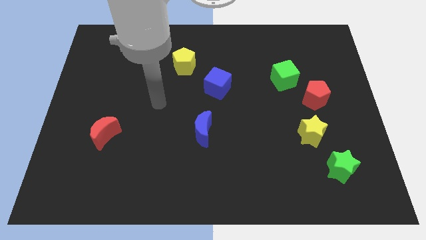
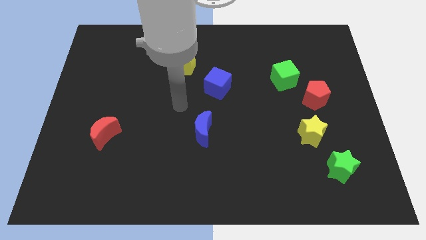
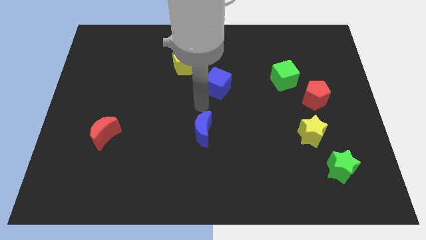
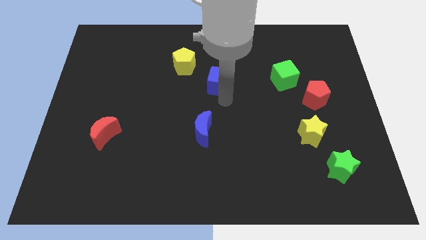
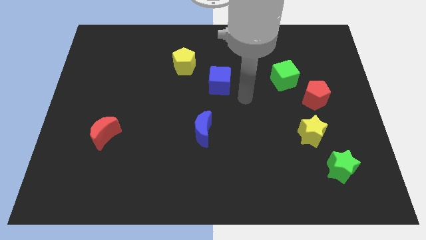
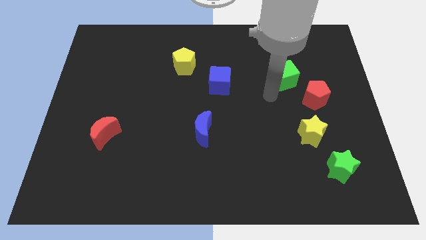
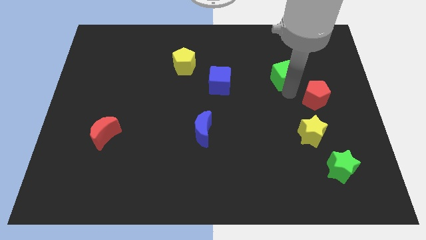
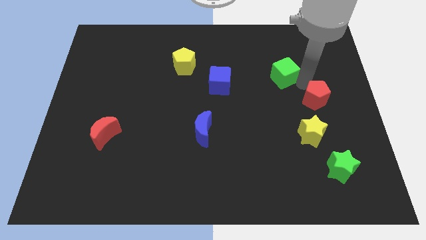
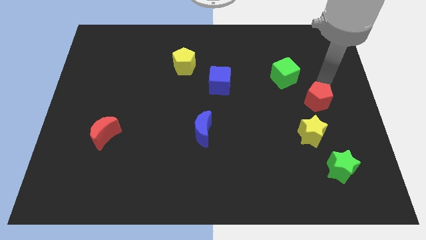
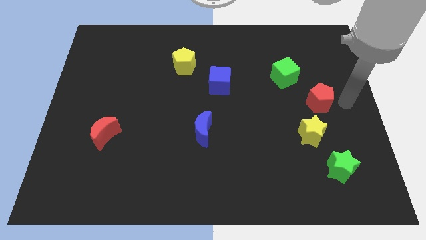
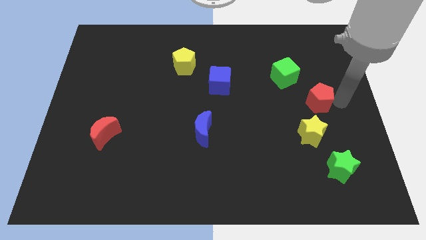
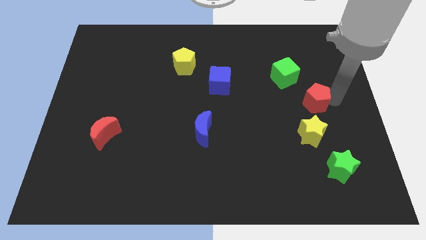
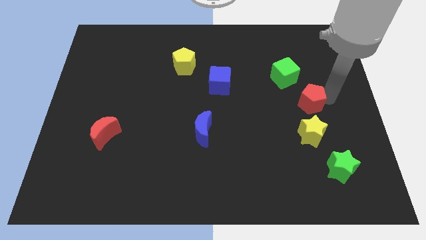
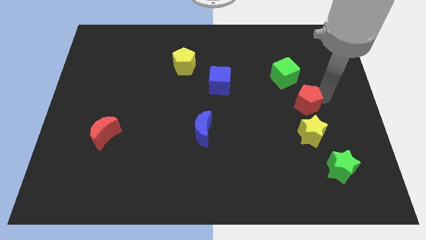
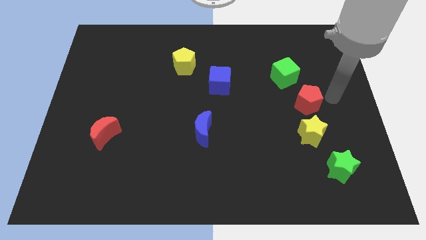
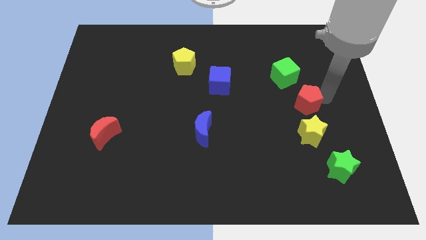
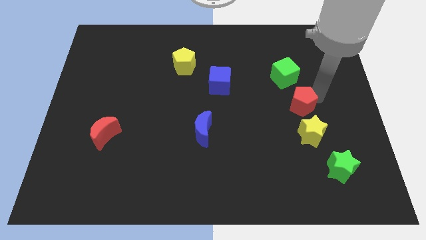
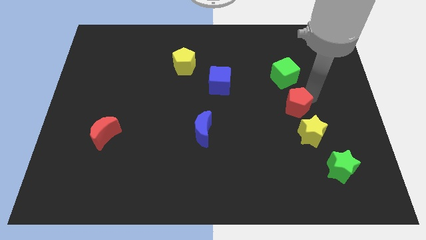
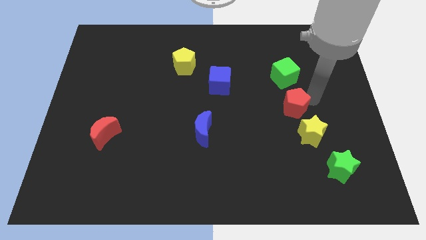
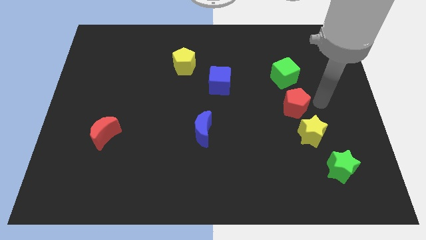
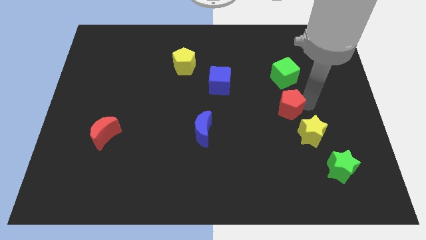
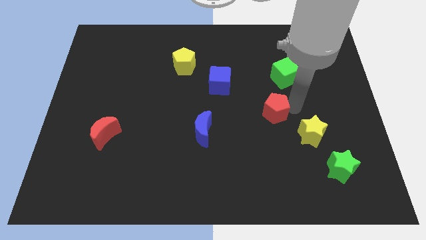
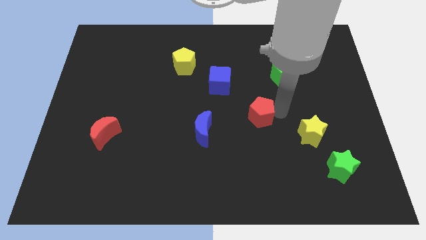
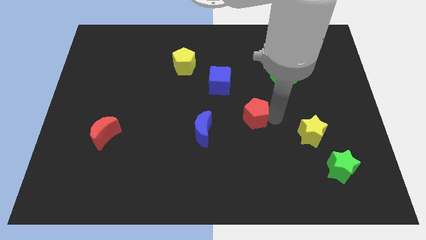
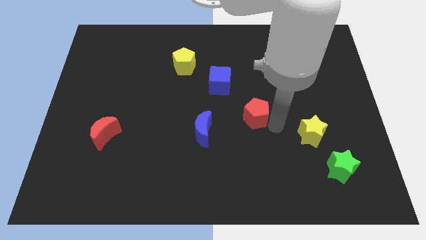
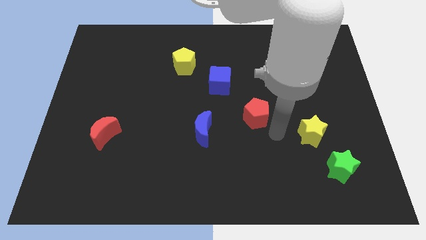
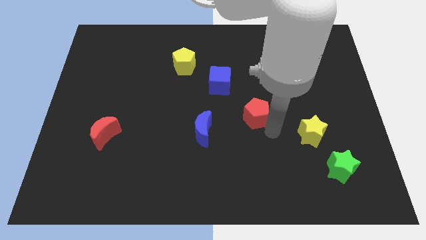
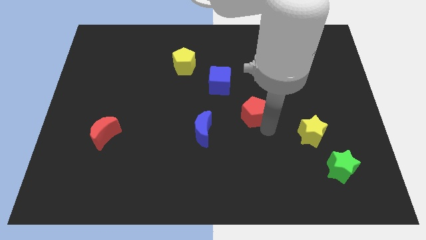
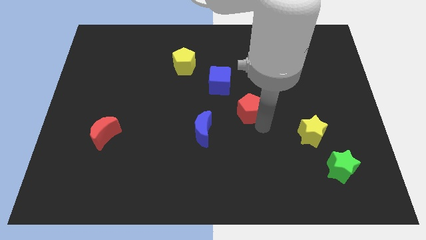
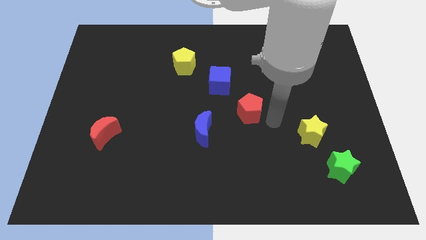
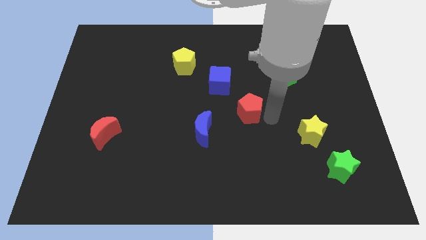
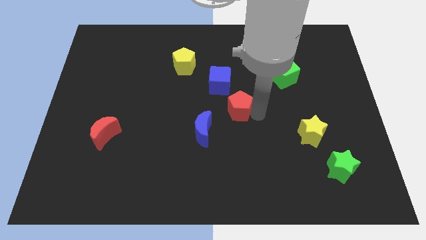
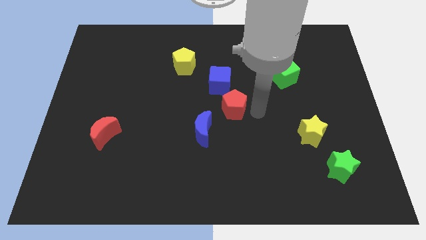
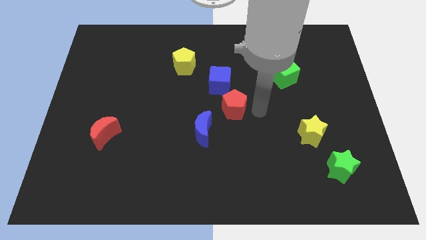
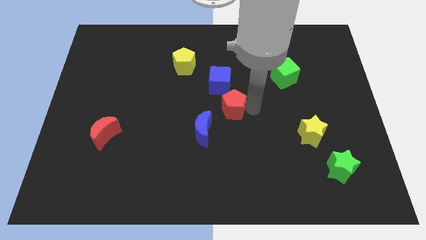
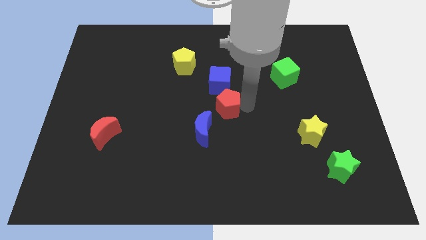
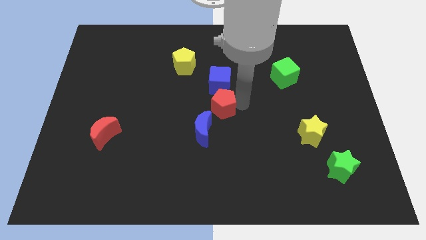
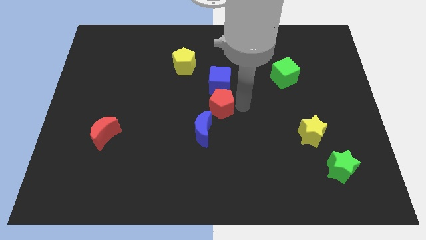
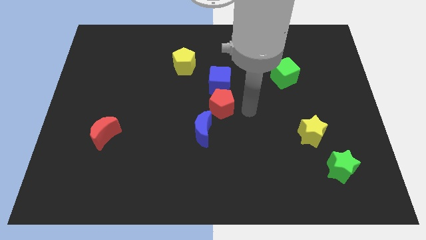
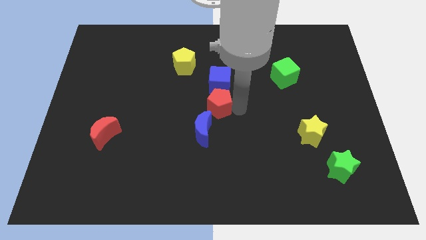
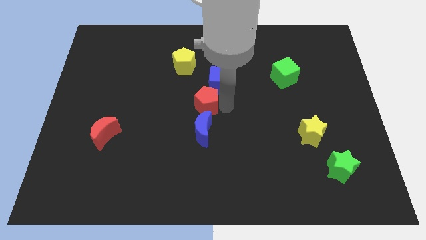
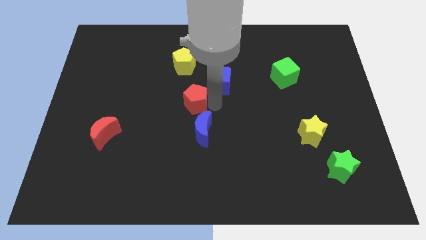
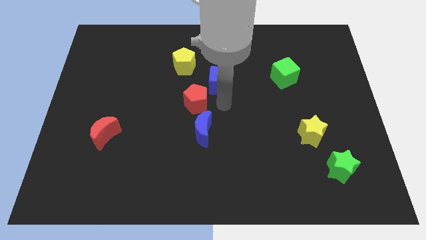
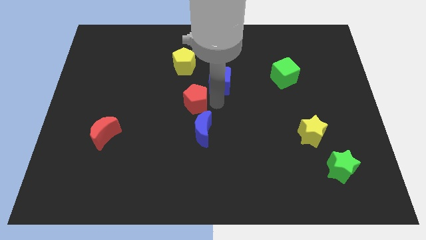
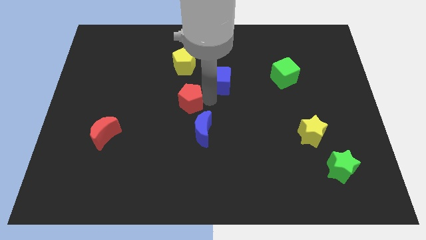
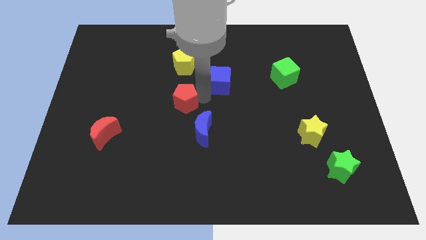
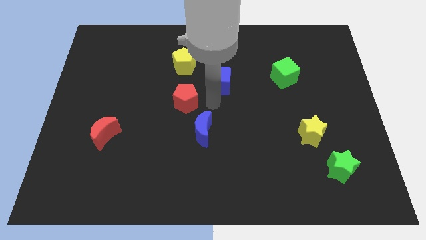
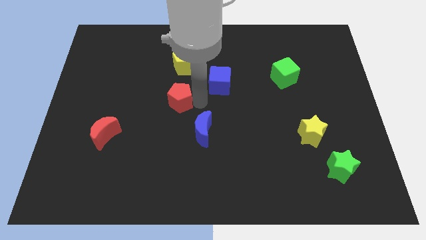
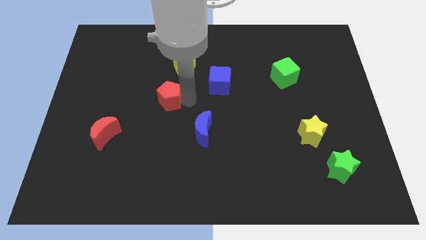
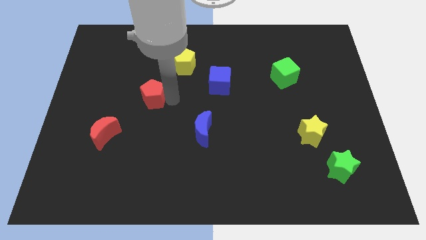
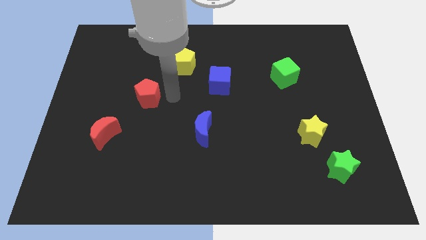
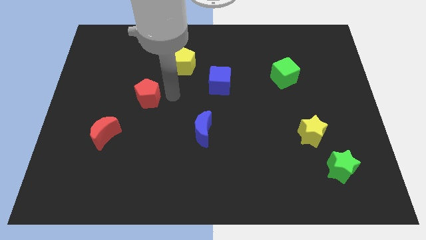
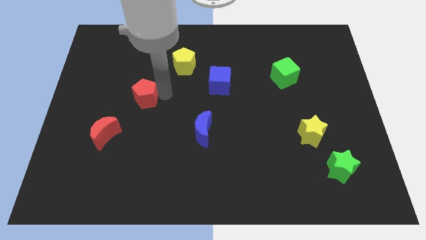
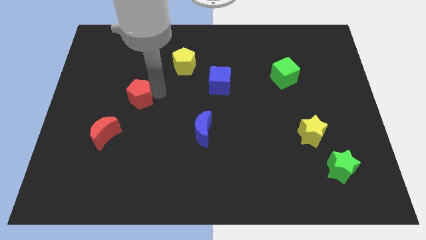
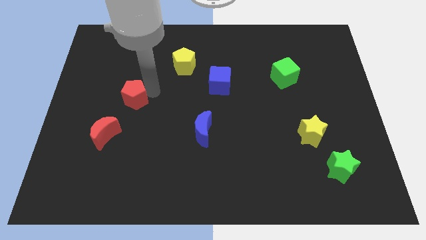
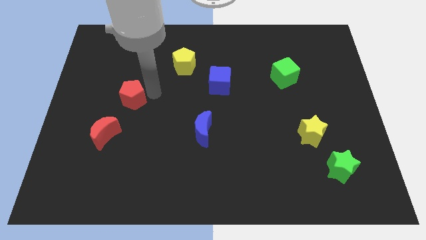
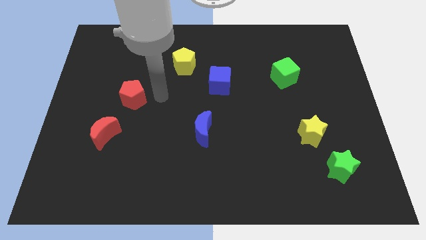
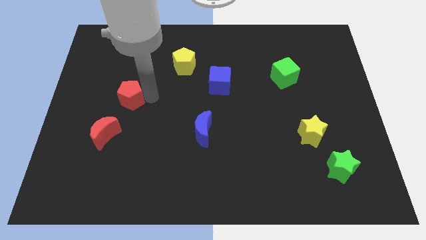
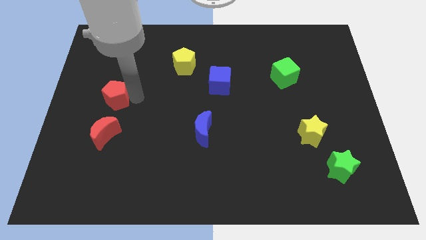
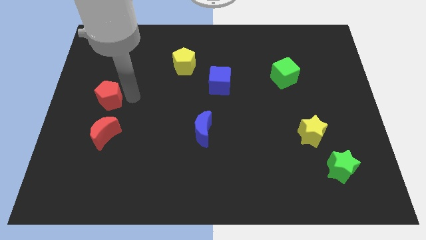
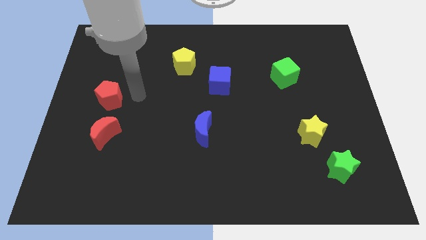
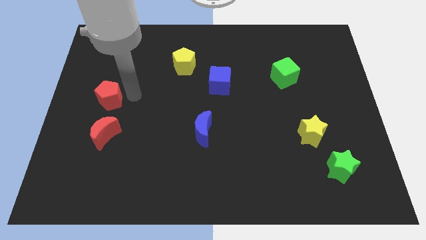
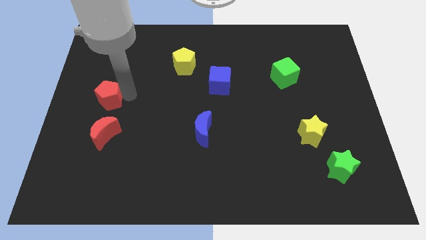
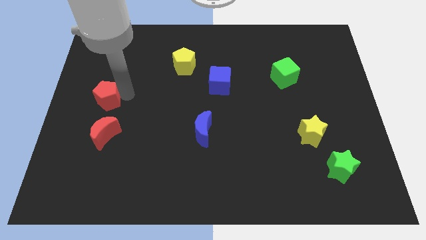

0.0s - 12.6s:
push the red pentagon to the left side

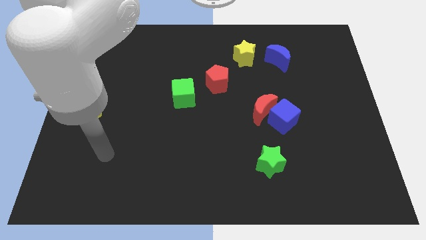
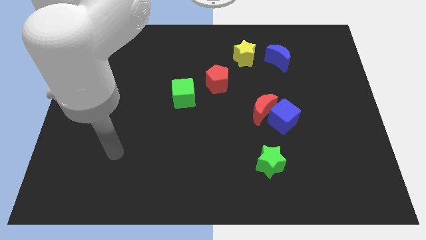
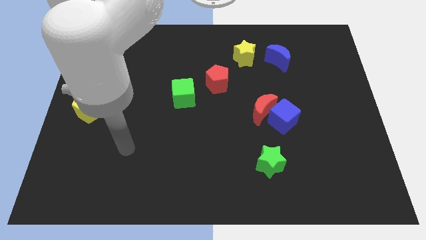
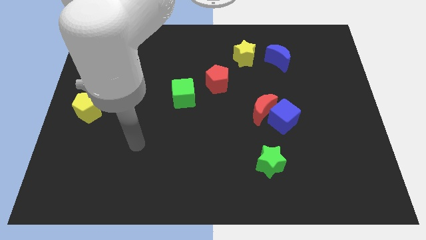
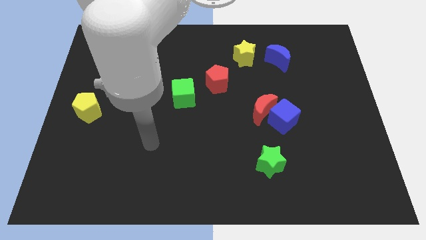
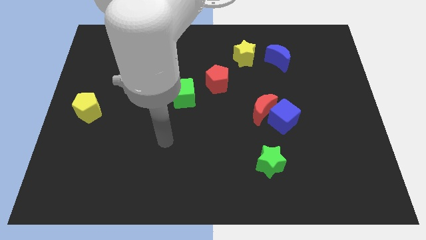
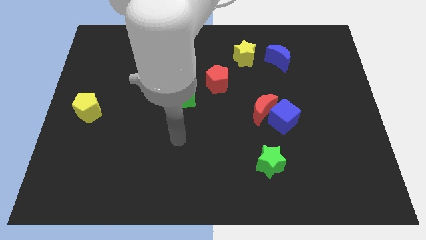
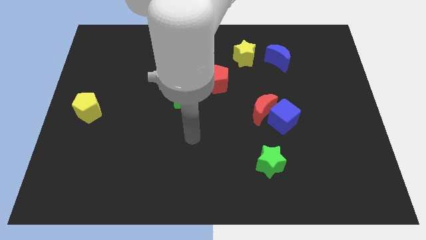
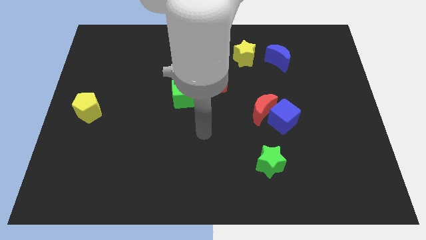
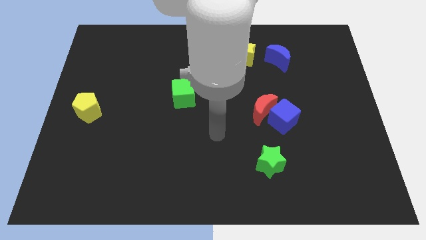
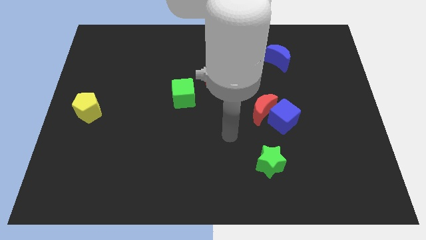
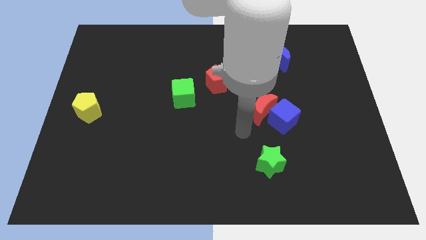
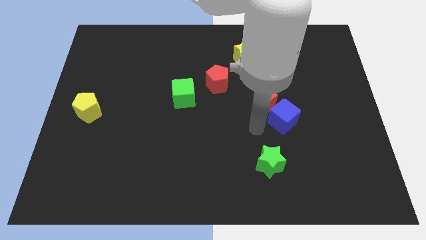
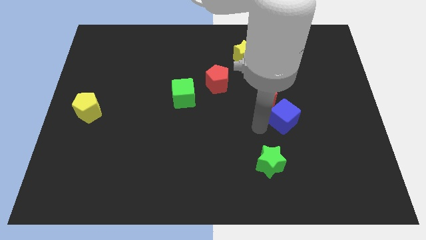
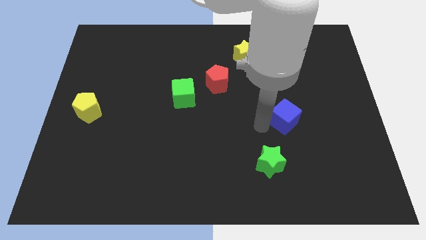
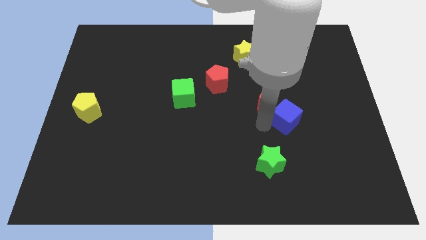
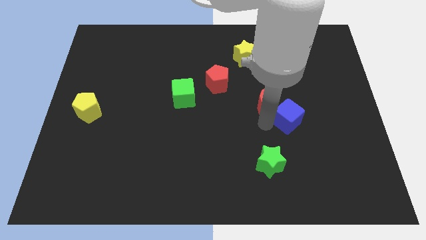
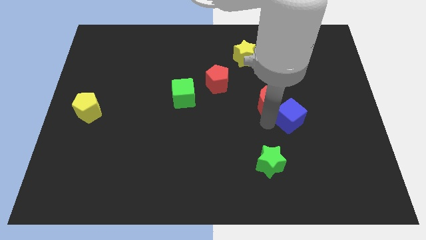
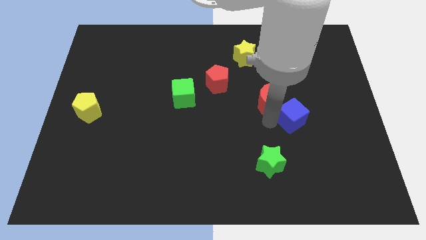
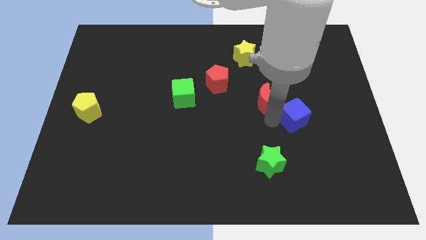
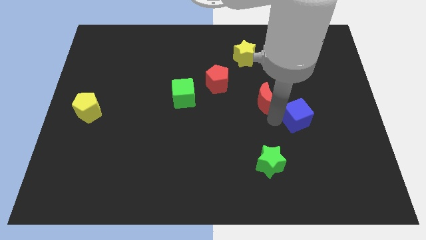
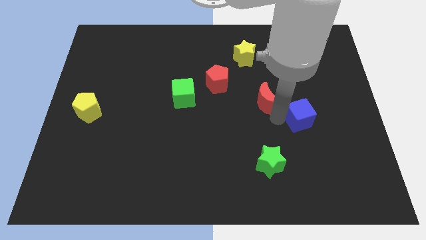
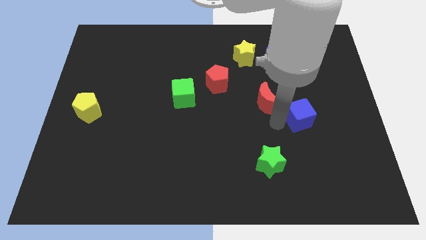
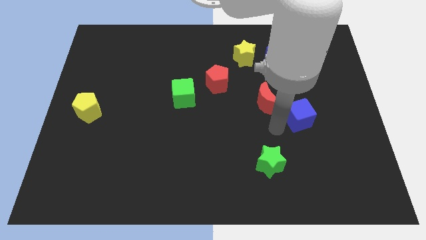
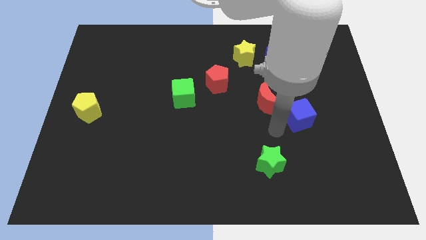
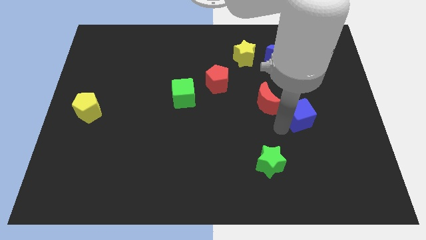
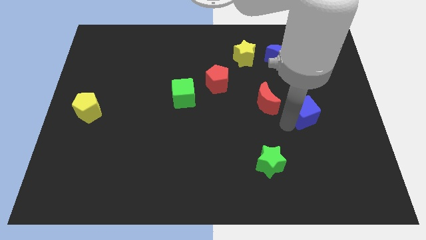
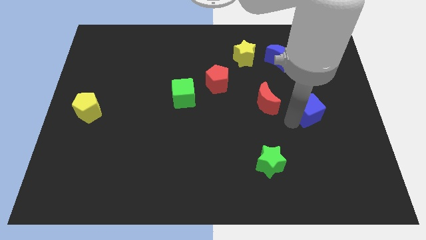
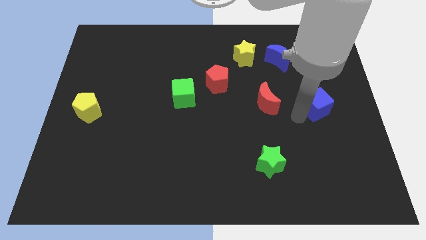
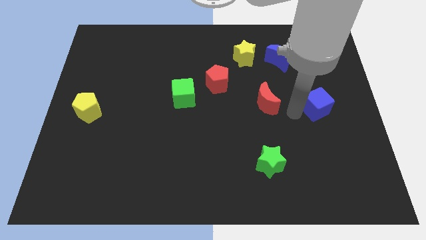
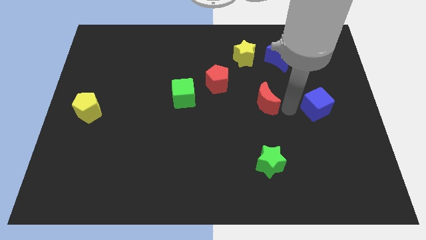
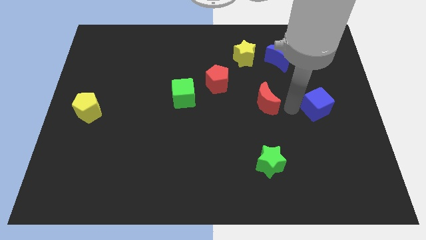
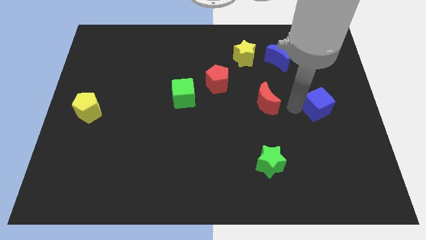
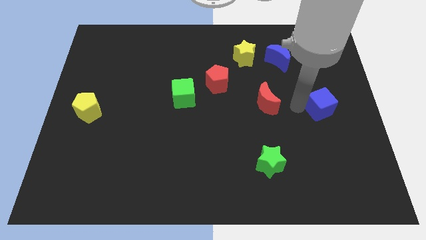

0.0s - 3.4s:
put the blue cube to the right side
